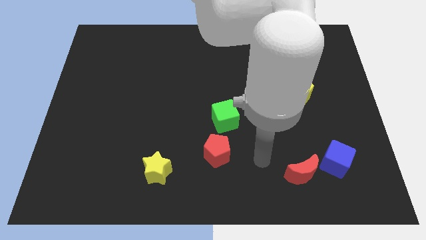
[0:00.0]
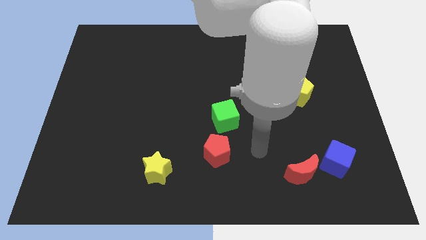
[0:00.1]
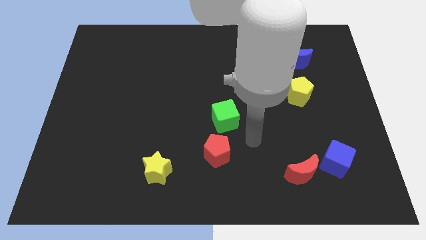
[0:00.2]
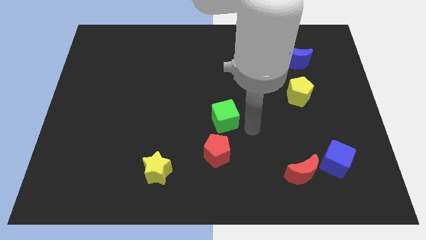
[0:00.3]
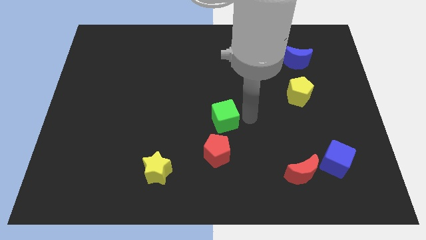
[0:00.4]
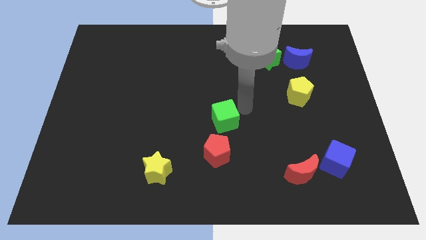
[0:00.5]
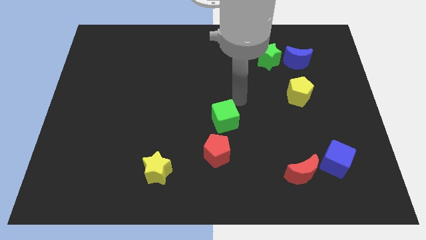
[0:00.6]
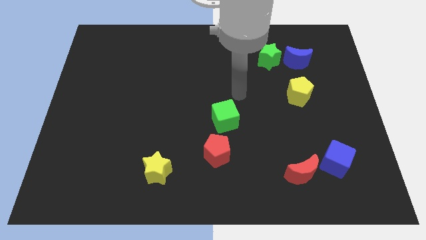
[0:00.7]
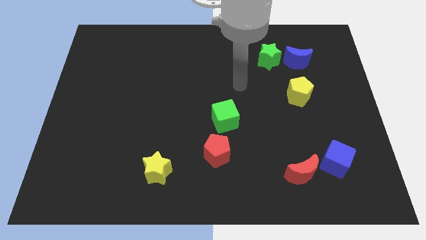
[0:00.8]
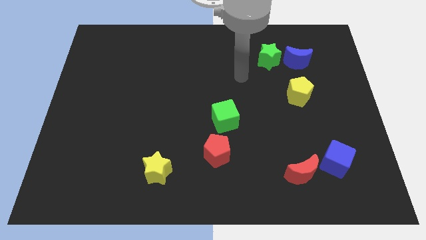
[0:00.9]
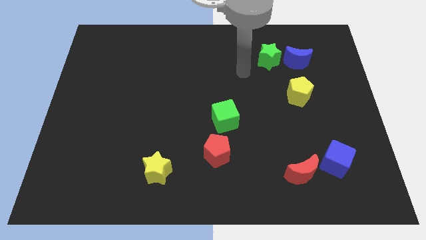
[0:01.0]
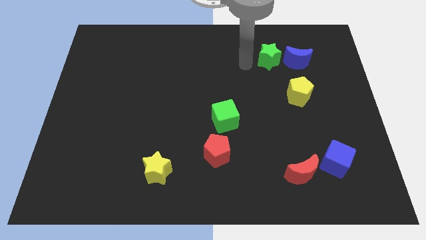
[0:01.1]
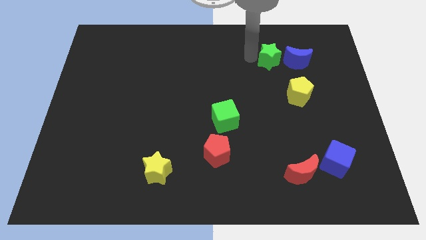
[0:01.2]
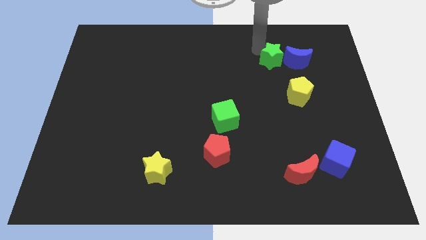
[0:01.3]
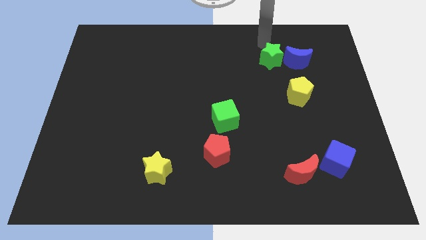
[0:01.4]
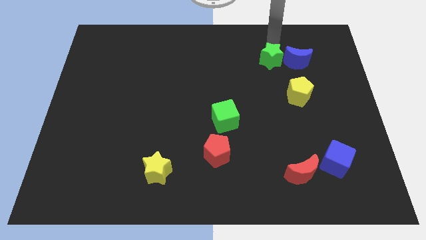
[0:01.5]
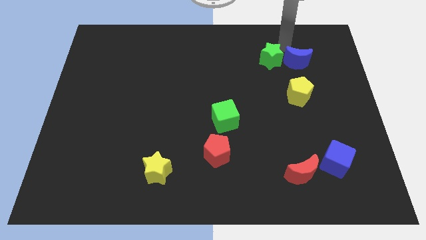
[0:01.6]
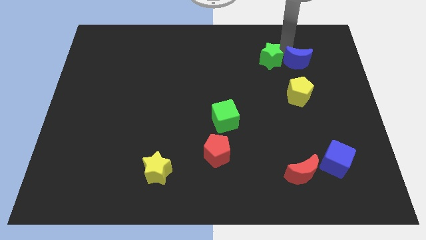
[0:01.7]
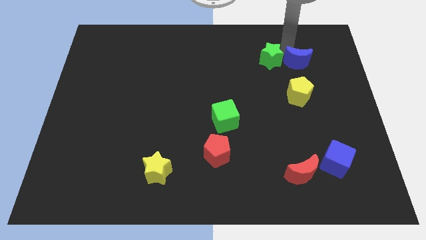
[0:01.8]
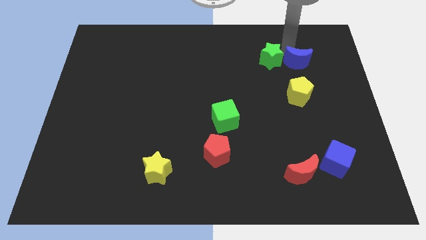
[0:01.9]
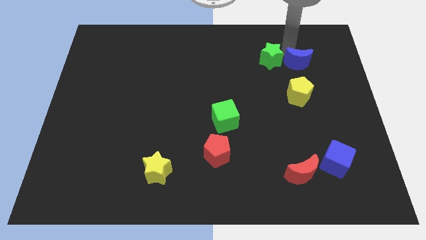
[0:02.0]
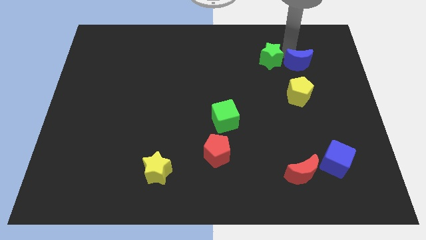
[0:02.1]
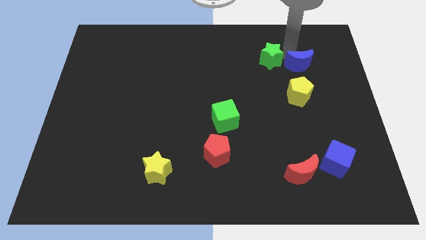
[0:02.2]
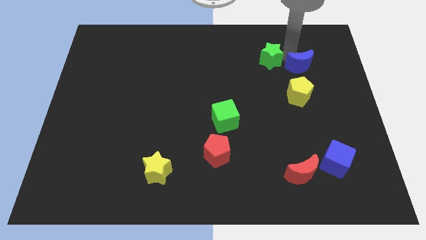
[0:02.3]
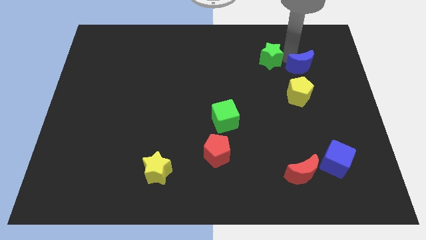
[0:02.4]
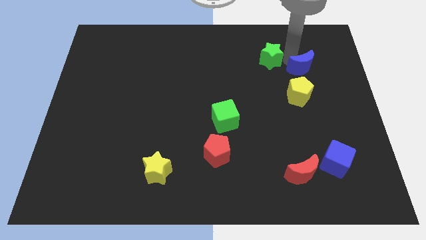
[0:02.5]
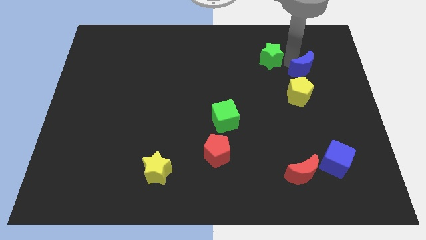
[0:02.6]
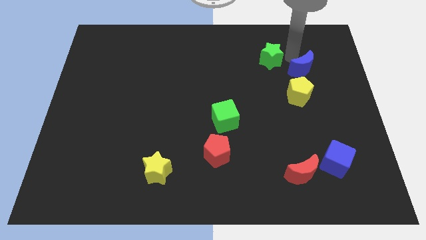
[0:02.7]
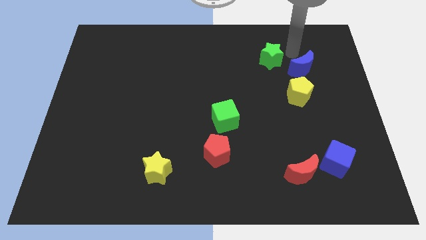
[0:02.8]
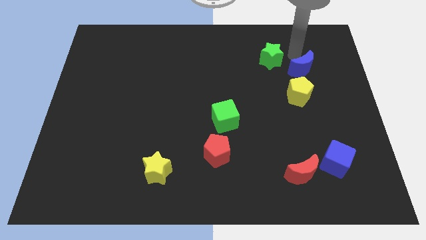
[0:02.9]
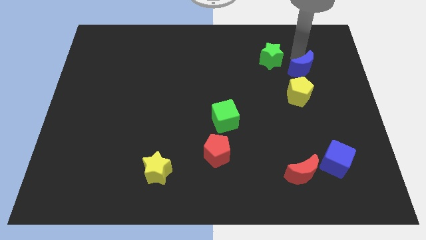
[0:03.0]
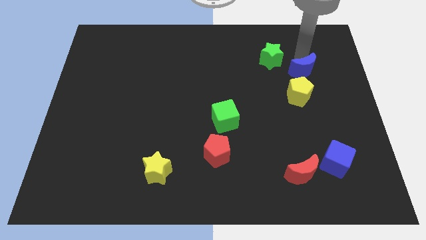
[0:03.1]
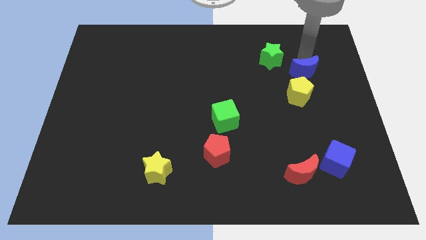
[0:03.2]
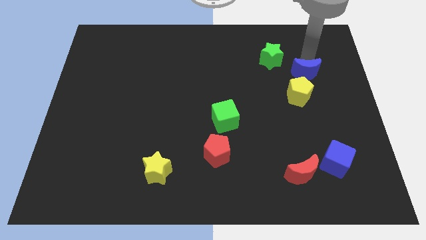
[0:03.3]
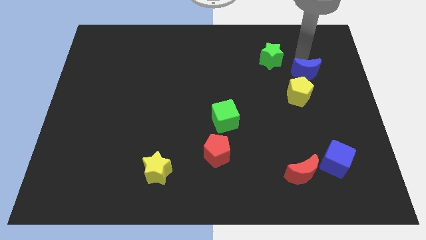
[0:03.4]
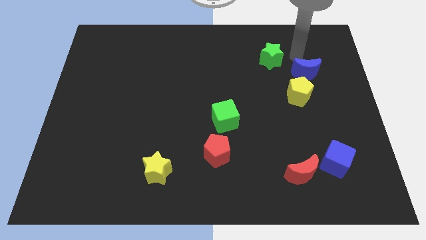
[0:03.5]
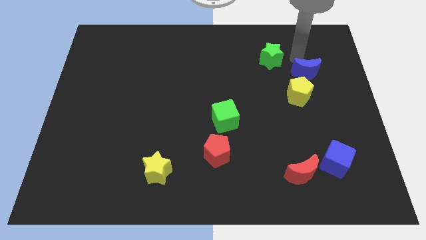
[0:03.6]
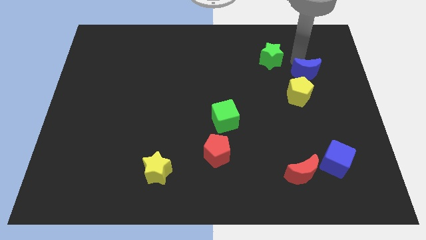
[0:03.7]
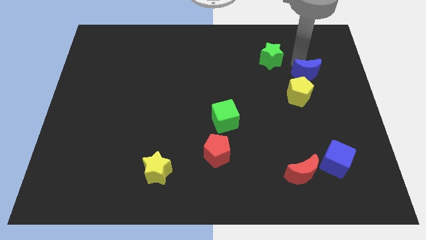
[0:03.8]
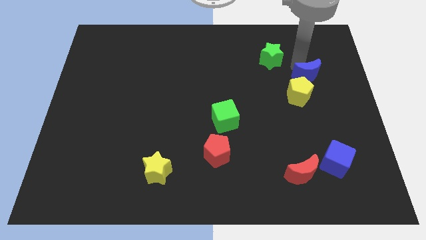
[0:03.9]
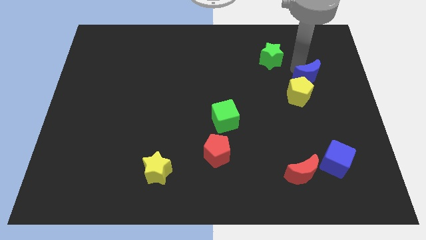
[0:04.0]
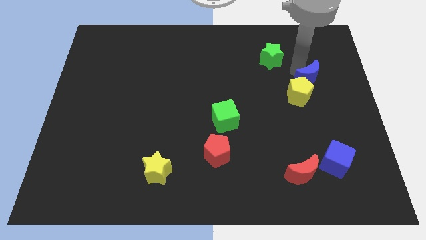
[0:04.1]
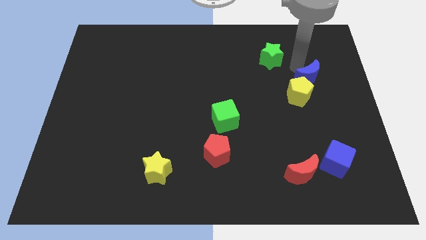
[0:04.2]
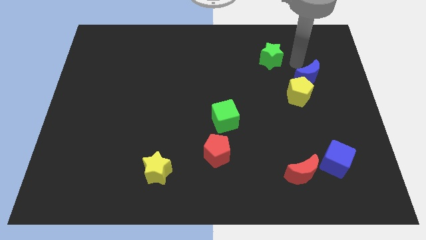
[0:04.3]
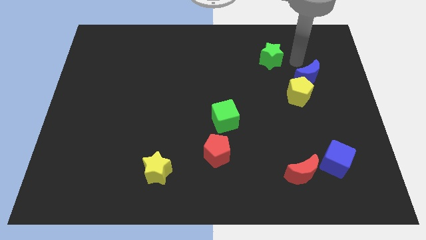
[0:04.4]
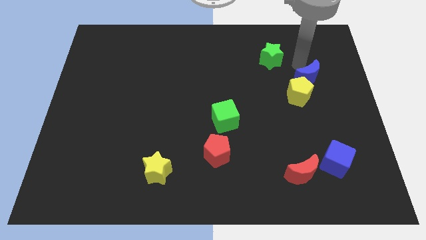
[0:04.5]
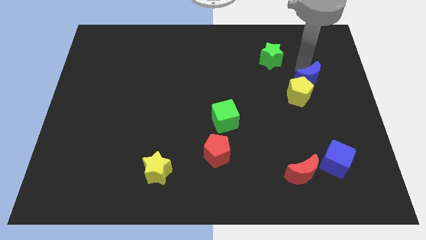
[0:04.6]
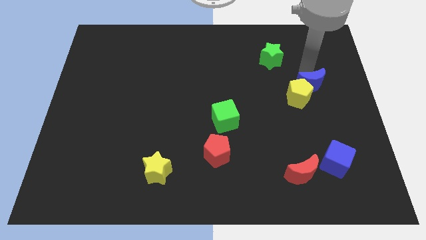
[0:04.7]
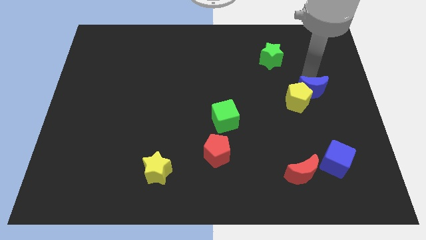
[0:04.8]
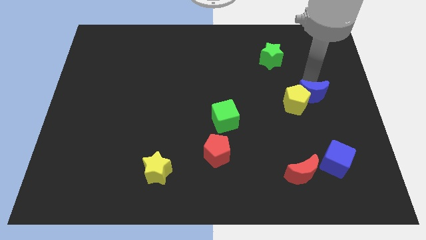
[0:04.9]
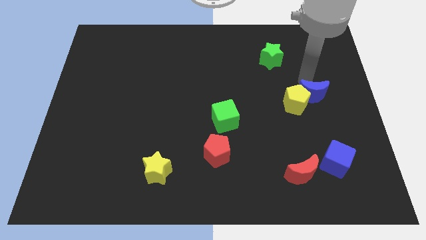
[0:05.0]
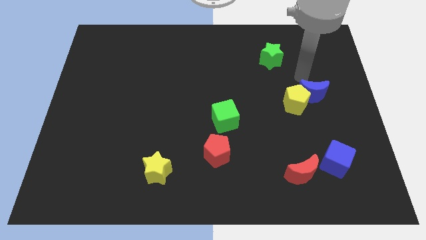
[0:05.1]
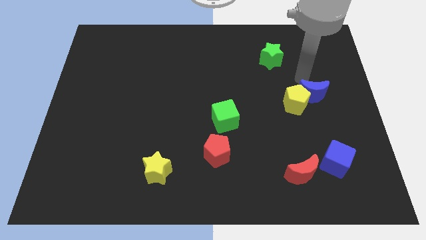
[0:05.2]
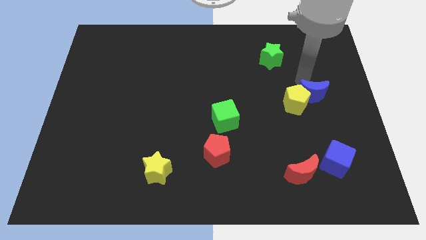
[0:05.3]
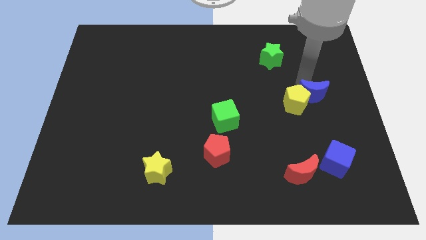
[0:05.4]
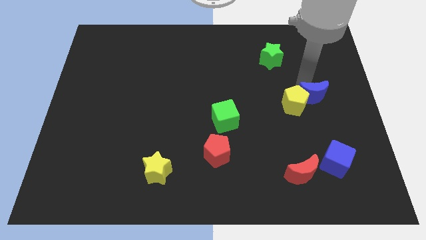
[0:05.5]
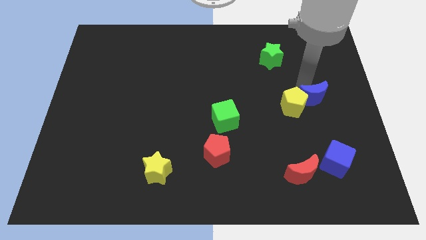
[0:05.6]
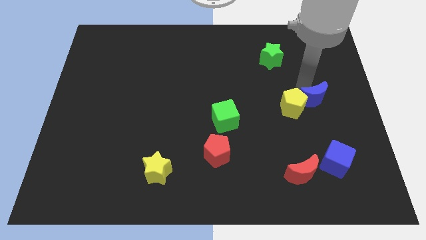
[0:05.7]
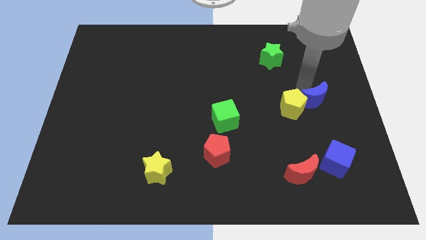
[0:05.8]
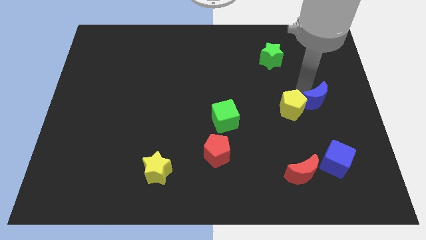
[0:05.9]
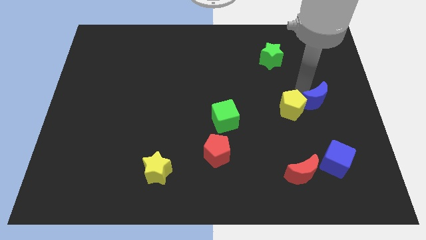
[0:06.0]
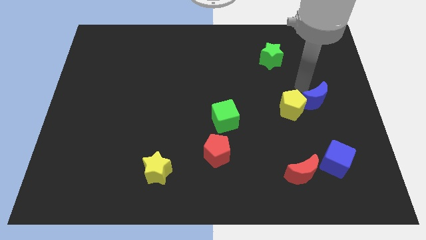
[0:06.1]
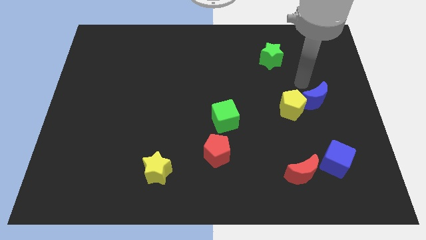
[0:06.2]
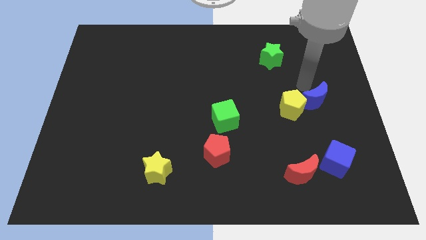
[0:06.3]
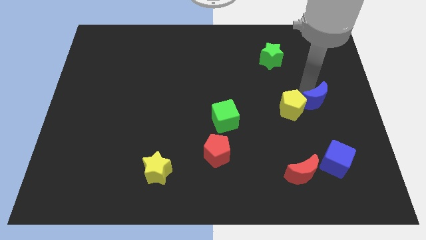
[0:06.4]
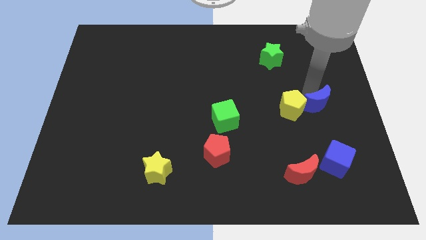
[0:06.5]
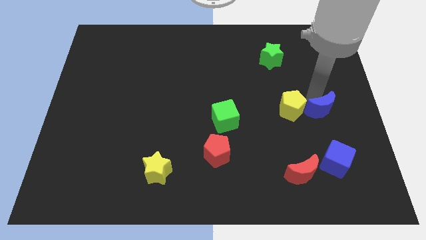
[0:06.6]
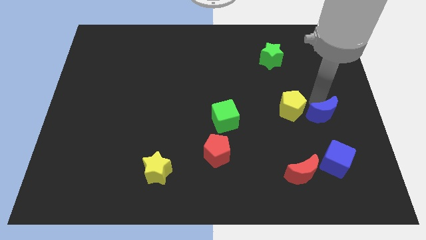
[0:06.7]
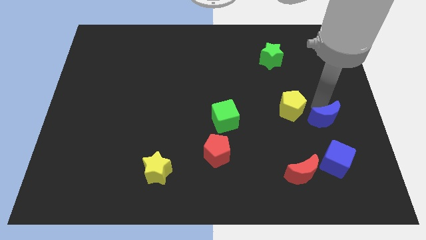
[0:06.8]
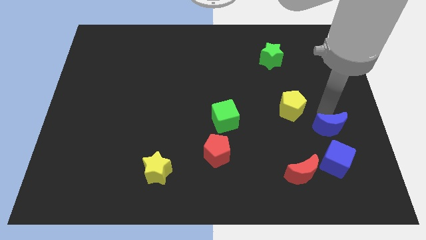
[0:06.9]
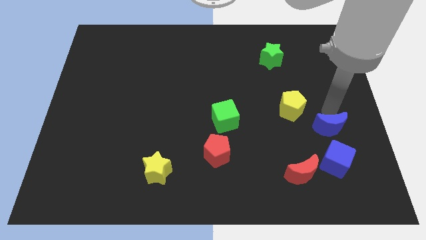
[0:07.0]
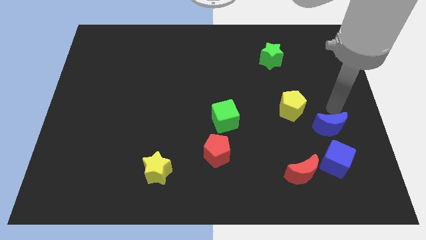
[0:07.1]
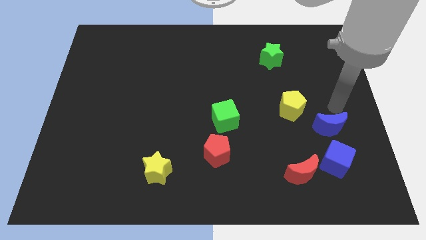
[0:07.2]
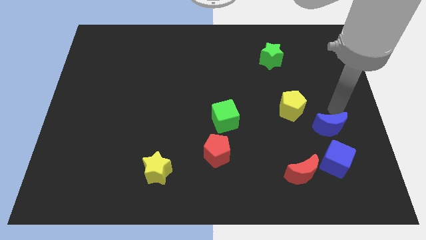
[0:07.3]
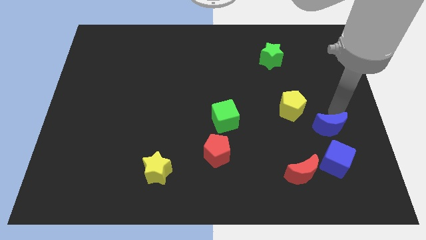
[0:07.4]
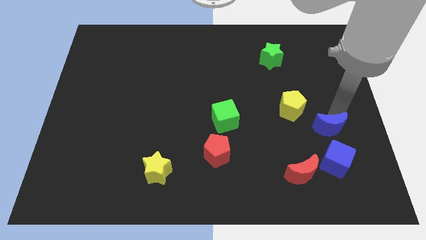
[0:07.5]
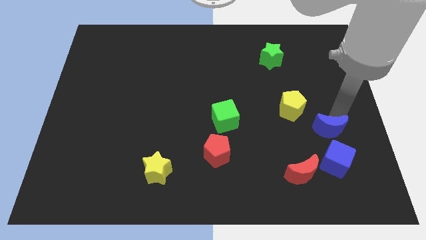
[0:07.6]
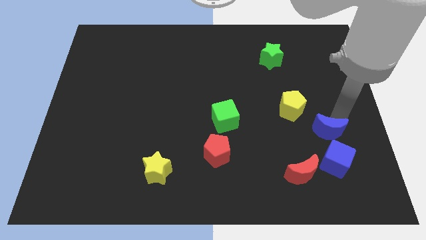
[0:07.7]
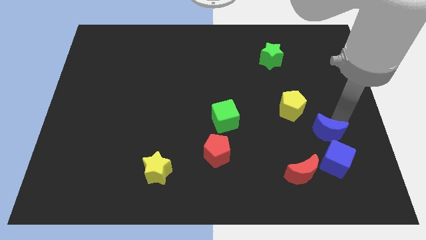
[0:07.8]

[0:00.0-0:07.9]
slide the blue moon diagonally up and to the right of the red moon
